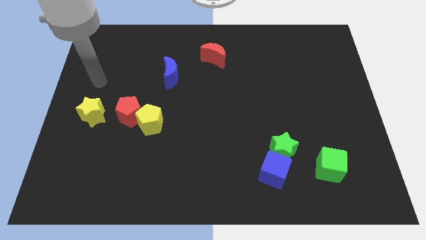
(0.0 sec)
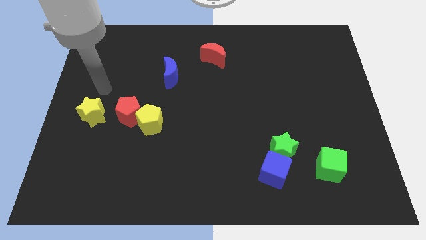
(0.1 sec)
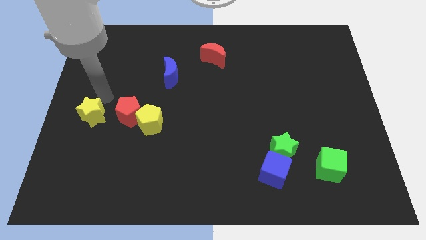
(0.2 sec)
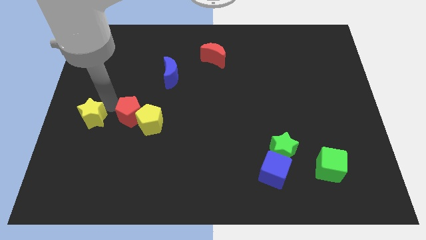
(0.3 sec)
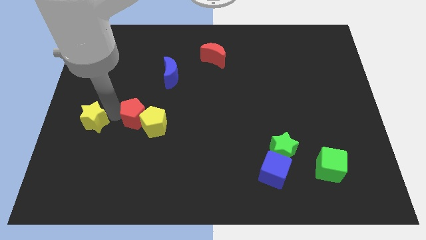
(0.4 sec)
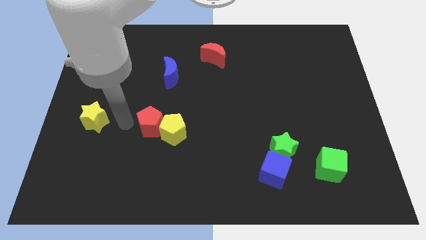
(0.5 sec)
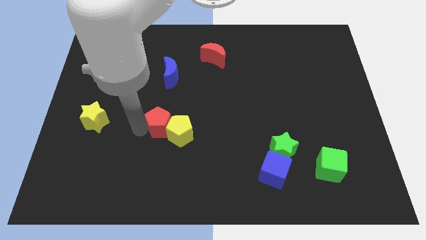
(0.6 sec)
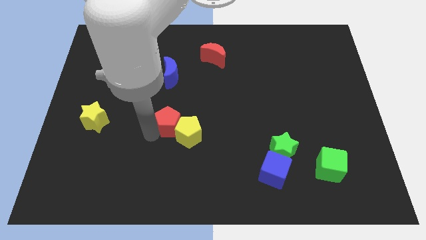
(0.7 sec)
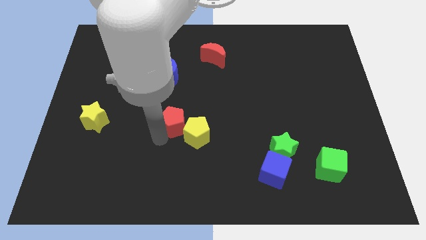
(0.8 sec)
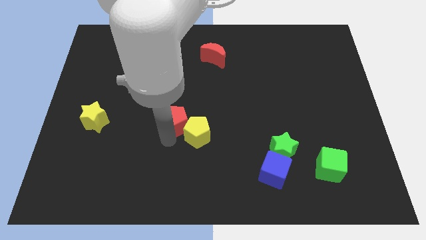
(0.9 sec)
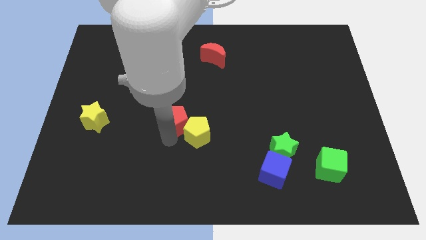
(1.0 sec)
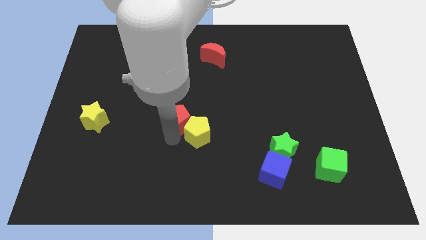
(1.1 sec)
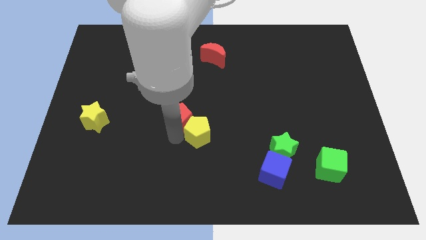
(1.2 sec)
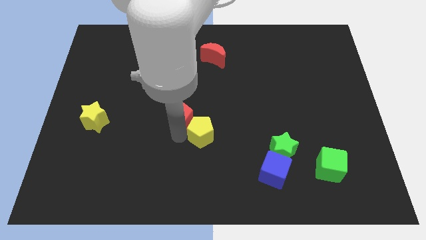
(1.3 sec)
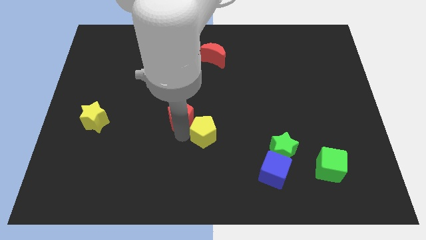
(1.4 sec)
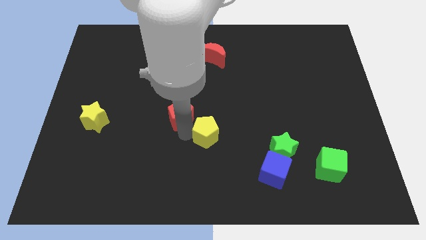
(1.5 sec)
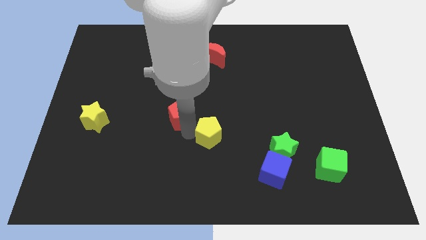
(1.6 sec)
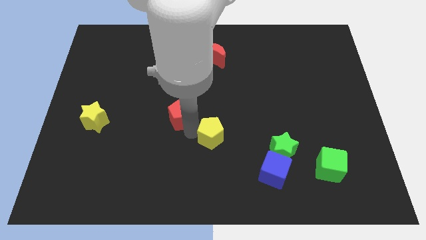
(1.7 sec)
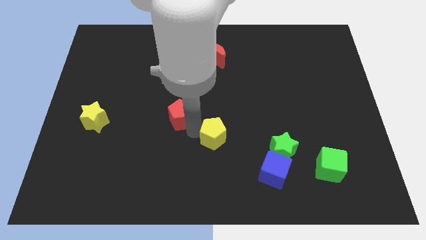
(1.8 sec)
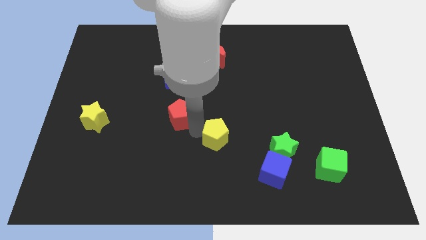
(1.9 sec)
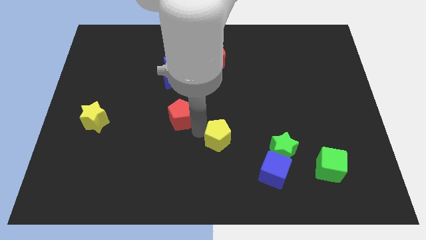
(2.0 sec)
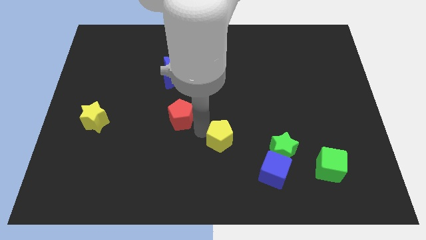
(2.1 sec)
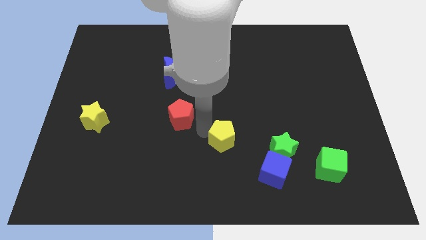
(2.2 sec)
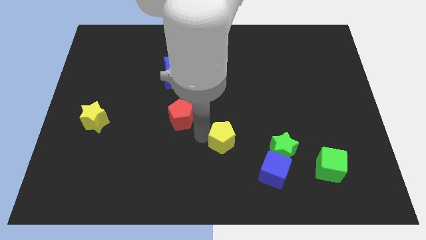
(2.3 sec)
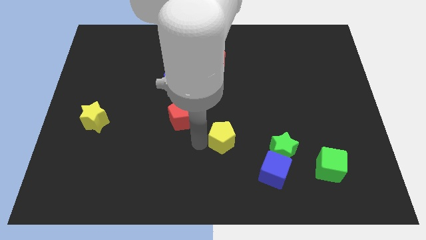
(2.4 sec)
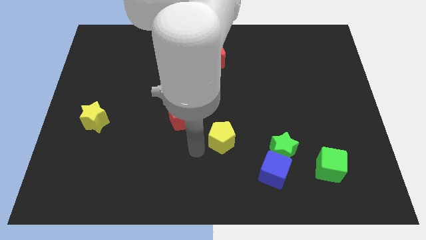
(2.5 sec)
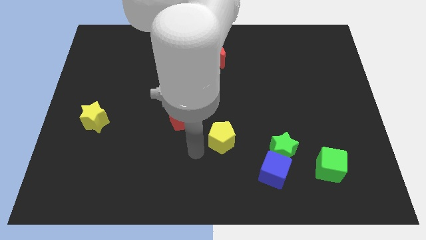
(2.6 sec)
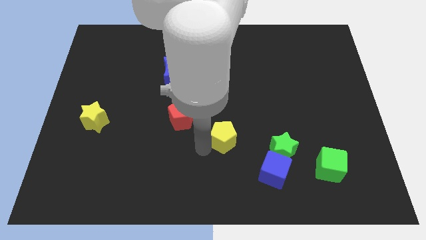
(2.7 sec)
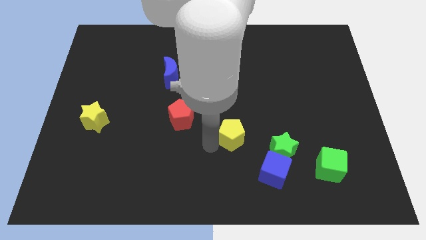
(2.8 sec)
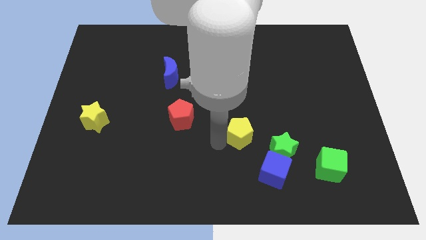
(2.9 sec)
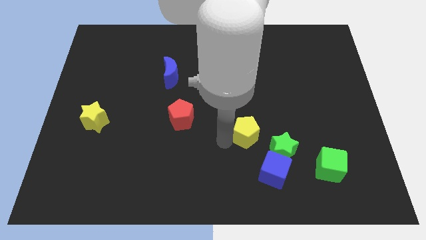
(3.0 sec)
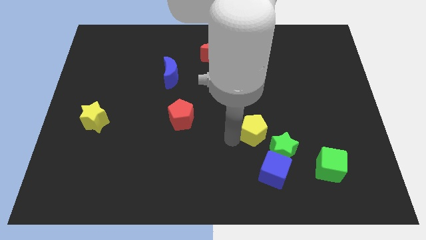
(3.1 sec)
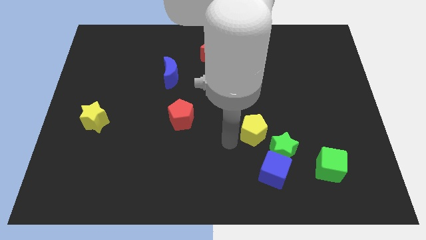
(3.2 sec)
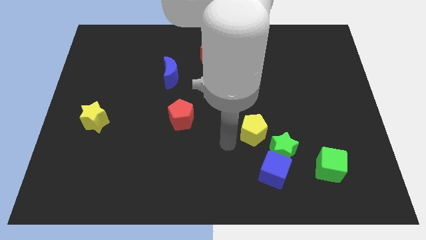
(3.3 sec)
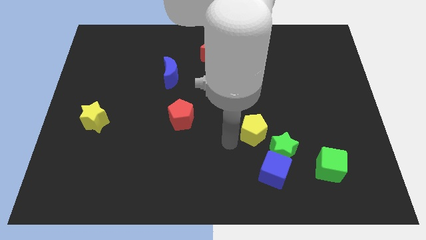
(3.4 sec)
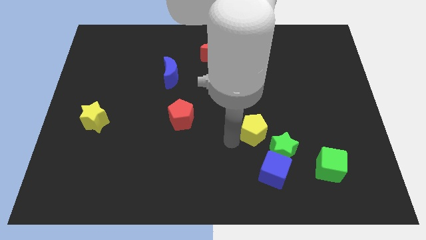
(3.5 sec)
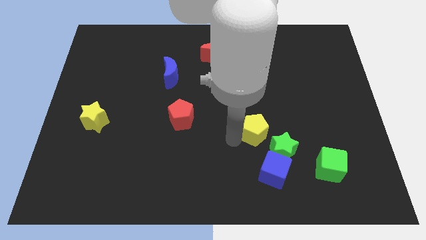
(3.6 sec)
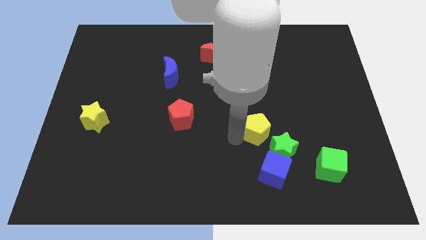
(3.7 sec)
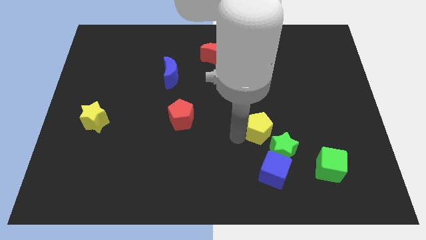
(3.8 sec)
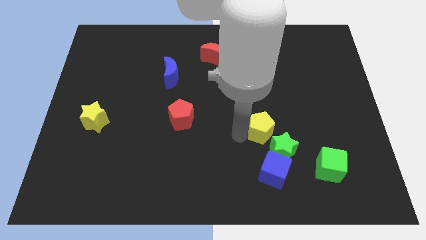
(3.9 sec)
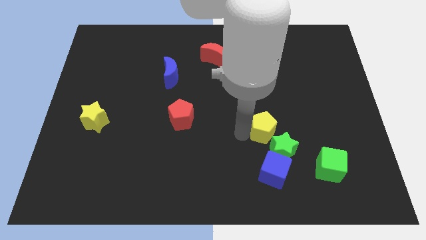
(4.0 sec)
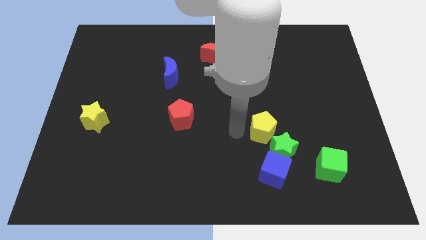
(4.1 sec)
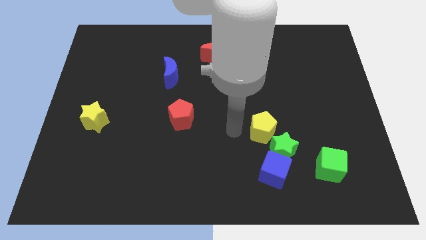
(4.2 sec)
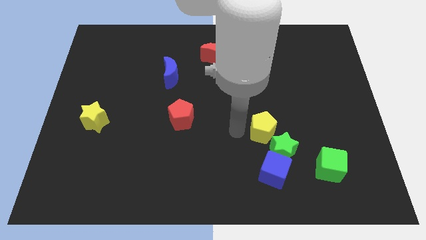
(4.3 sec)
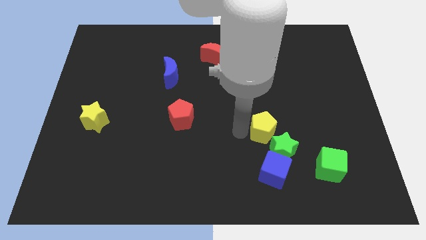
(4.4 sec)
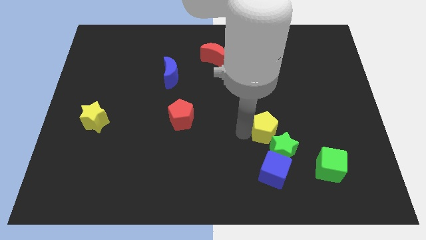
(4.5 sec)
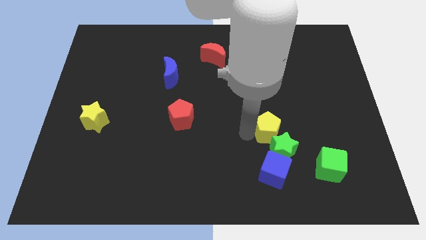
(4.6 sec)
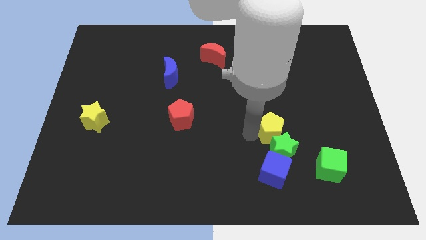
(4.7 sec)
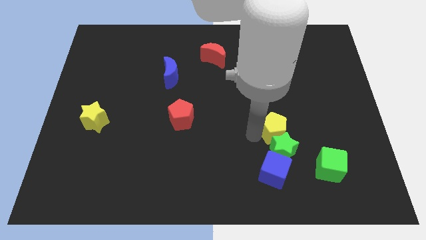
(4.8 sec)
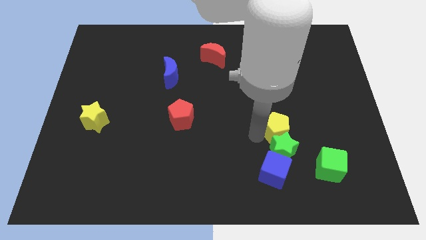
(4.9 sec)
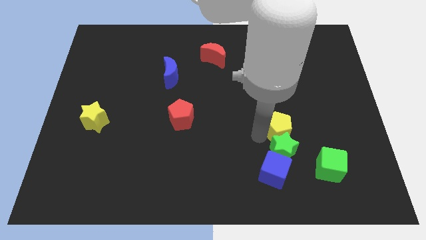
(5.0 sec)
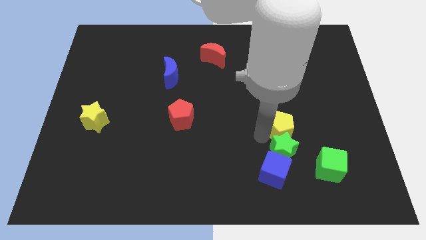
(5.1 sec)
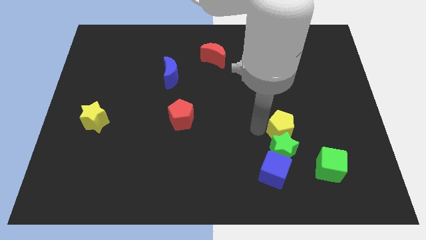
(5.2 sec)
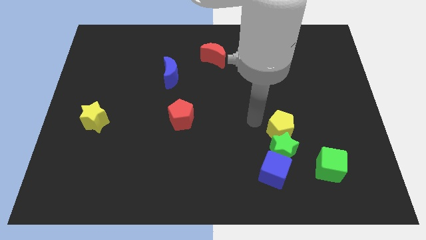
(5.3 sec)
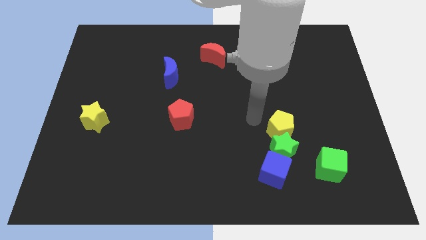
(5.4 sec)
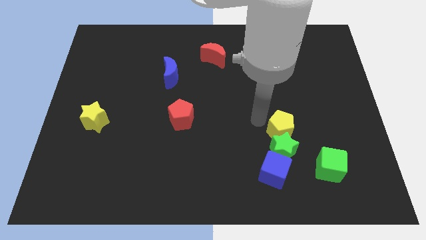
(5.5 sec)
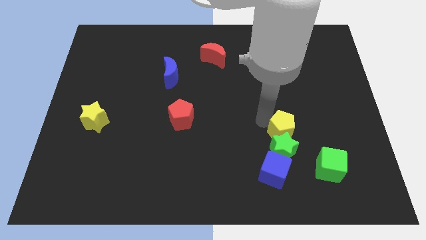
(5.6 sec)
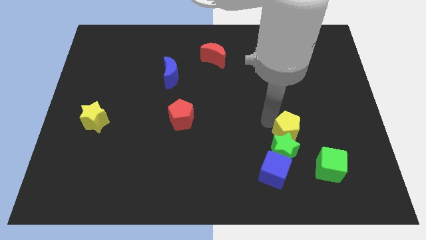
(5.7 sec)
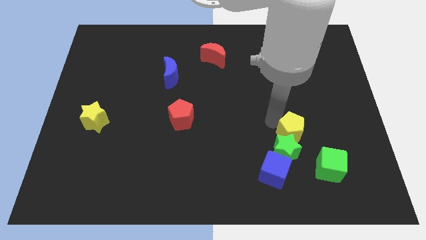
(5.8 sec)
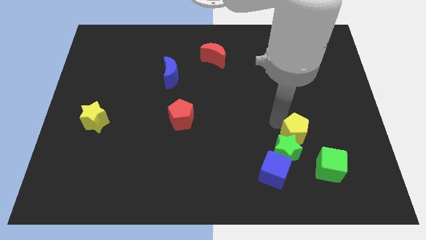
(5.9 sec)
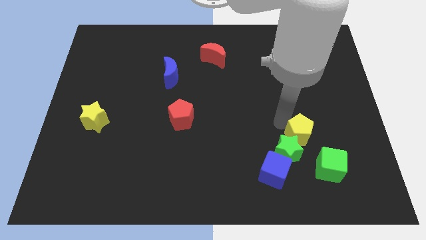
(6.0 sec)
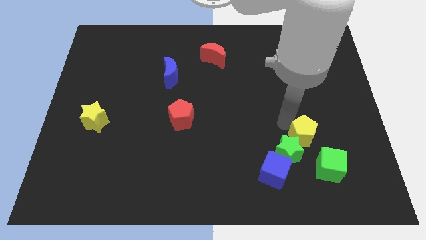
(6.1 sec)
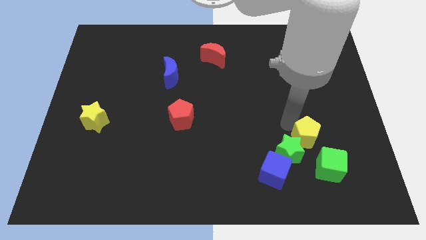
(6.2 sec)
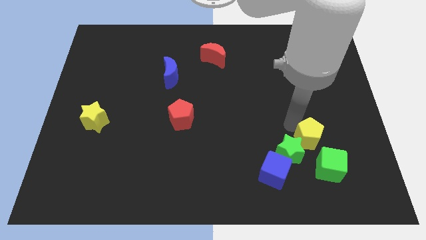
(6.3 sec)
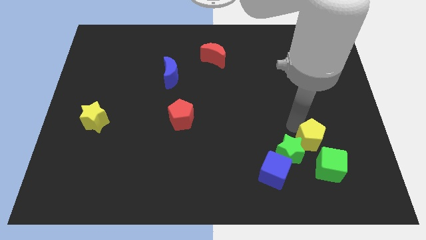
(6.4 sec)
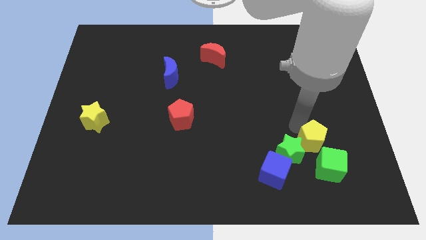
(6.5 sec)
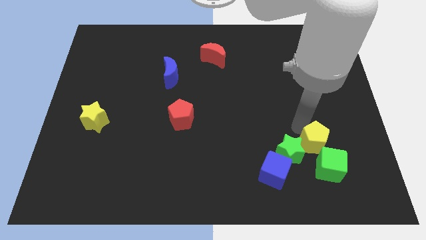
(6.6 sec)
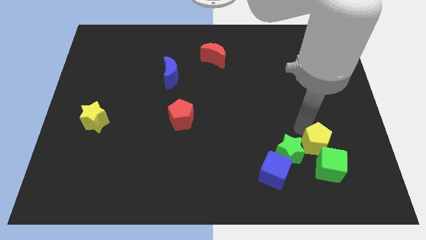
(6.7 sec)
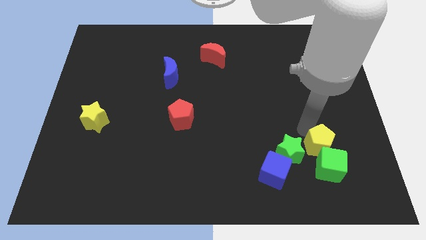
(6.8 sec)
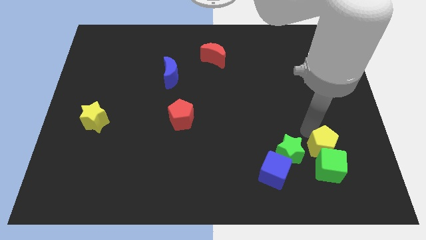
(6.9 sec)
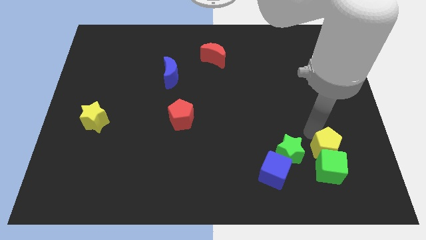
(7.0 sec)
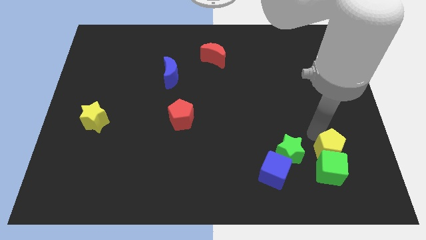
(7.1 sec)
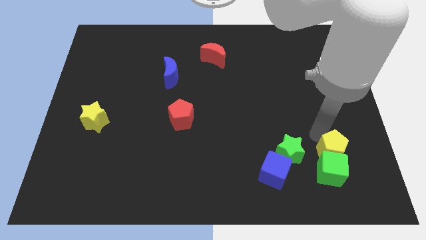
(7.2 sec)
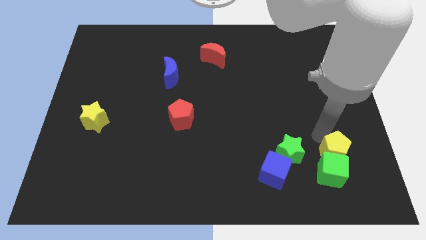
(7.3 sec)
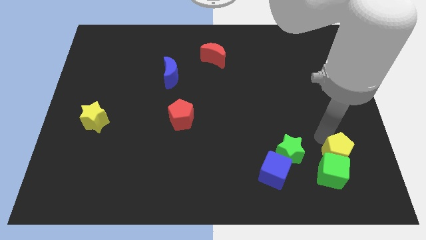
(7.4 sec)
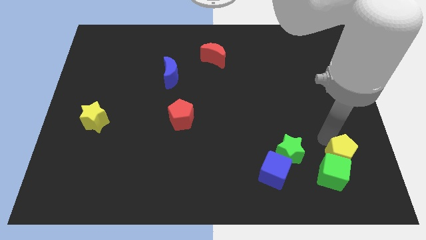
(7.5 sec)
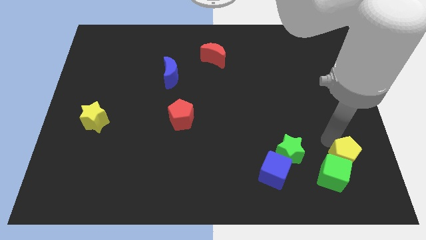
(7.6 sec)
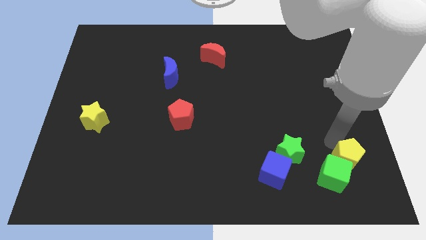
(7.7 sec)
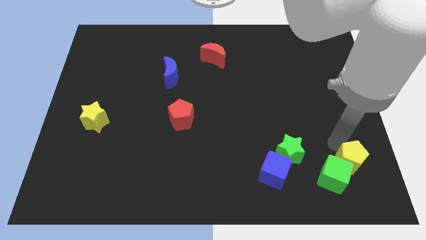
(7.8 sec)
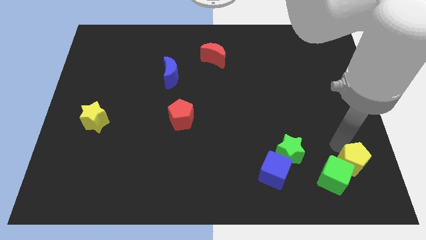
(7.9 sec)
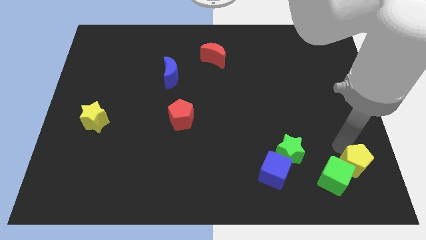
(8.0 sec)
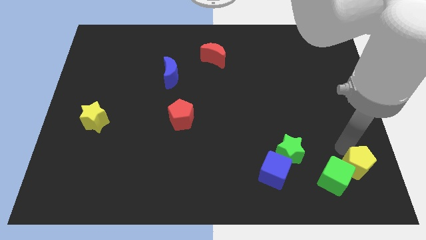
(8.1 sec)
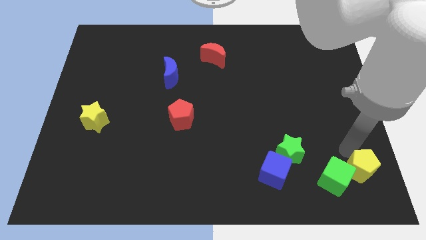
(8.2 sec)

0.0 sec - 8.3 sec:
push the yellow pentagon to the bottom right corner
